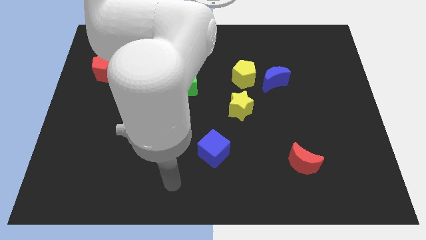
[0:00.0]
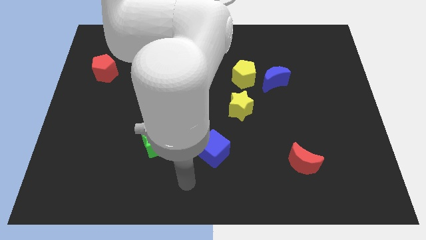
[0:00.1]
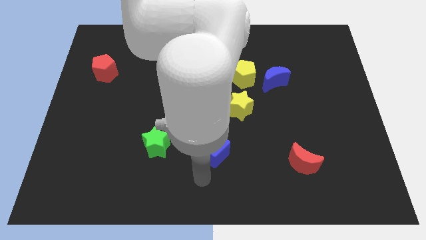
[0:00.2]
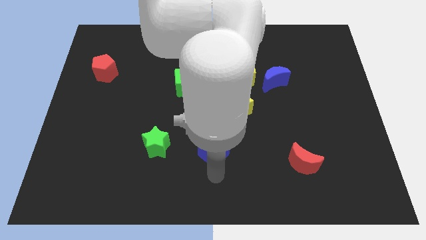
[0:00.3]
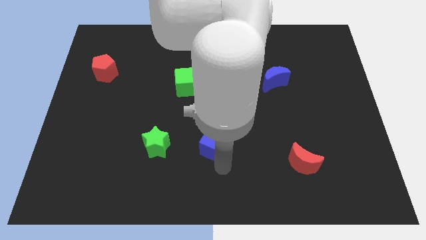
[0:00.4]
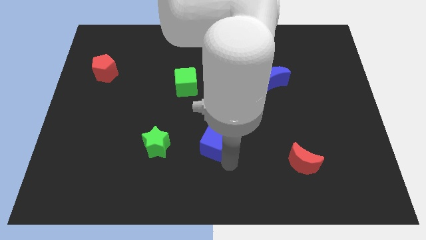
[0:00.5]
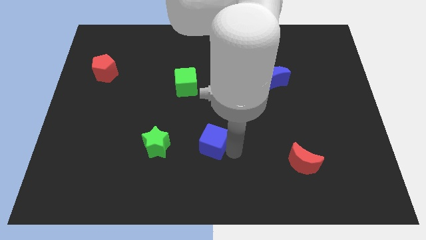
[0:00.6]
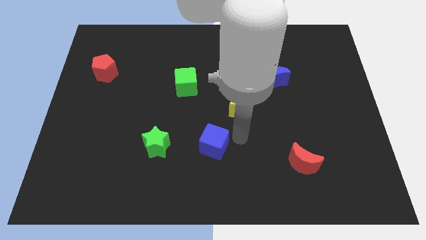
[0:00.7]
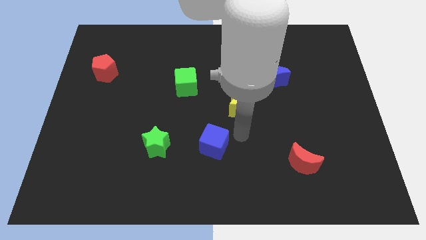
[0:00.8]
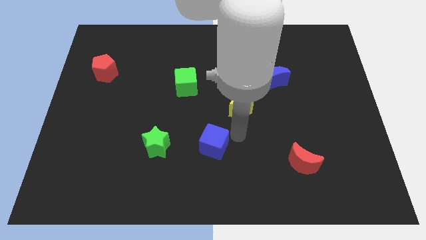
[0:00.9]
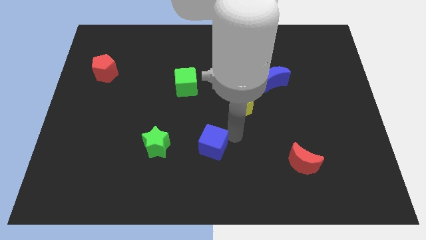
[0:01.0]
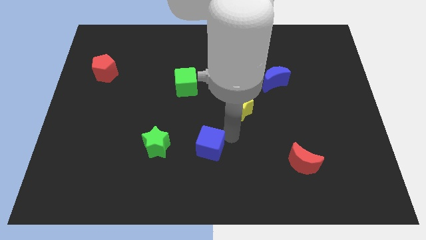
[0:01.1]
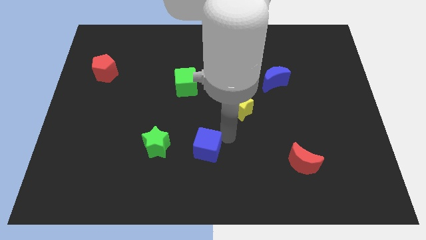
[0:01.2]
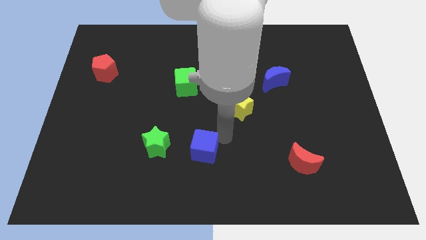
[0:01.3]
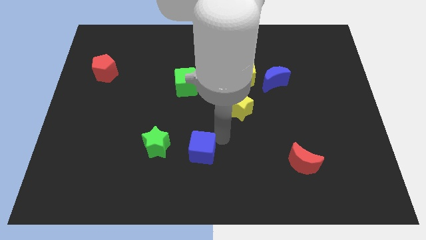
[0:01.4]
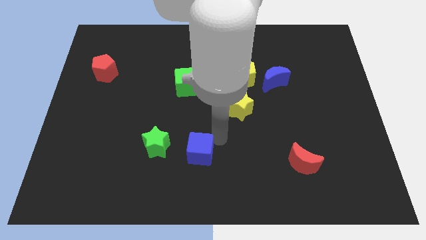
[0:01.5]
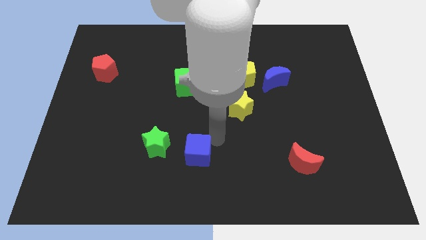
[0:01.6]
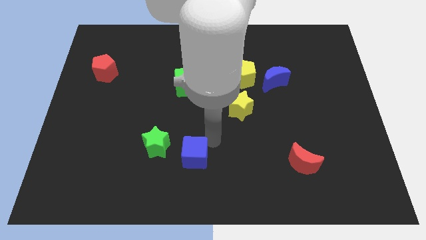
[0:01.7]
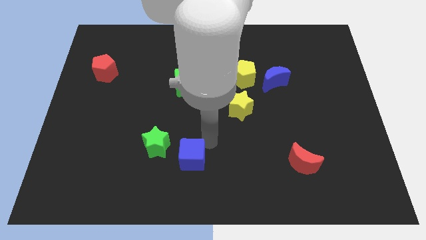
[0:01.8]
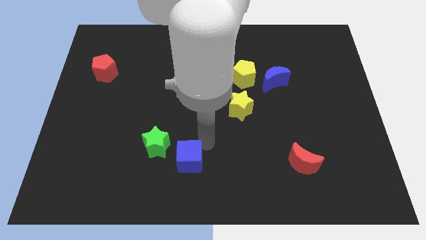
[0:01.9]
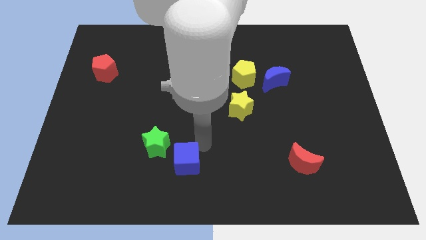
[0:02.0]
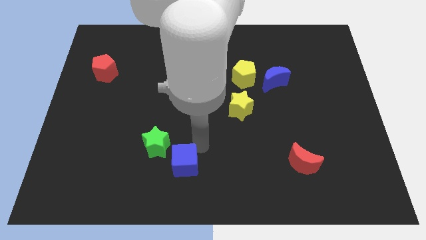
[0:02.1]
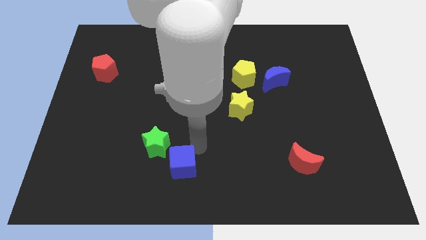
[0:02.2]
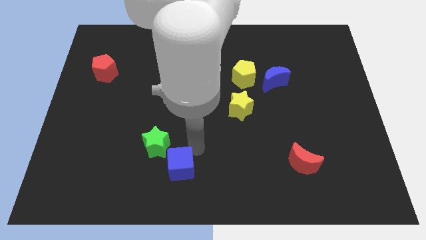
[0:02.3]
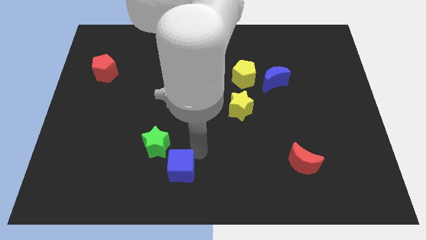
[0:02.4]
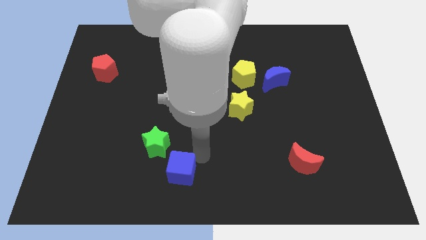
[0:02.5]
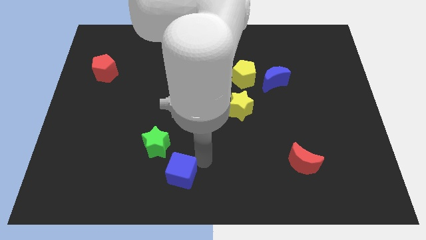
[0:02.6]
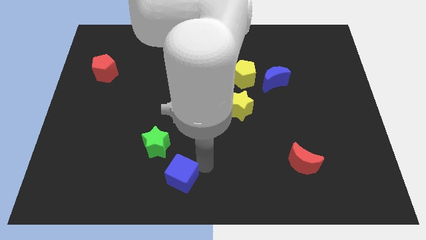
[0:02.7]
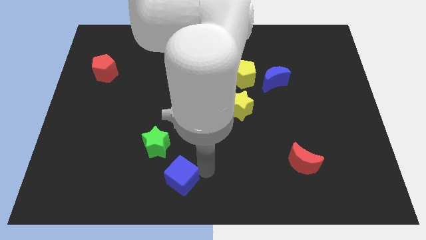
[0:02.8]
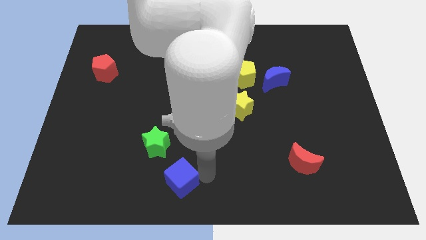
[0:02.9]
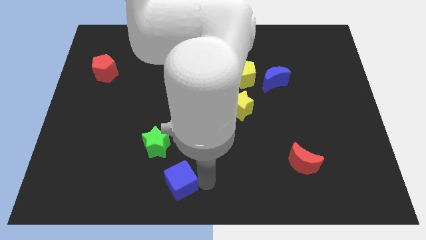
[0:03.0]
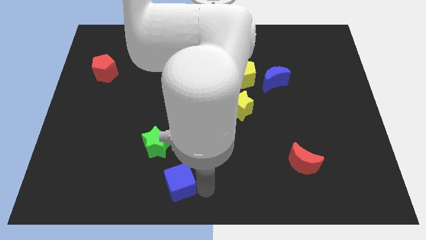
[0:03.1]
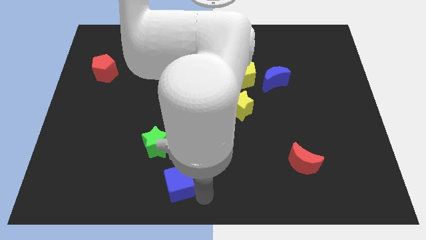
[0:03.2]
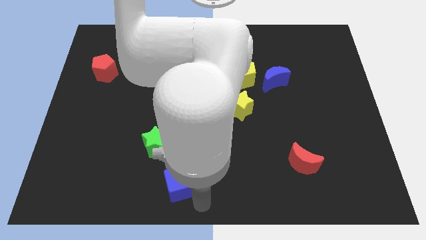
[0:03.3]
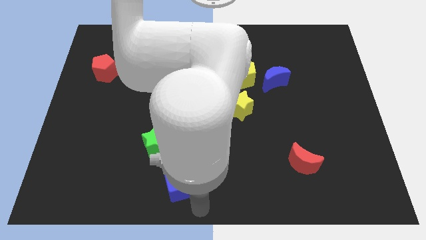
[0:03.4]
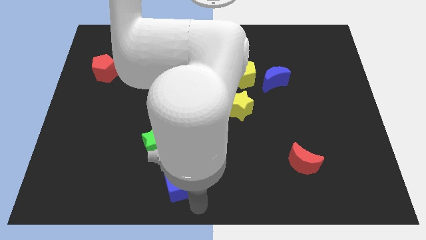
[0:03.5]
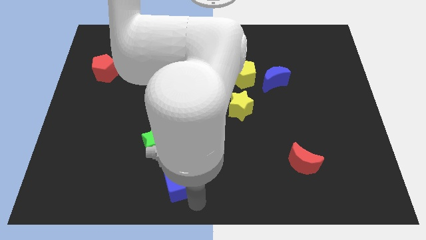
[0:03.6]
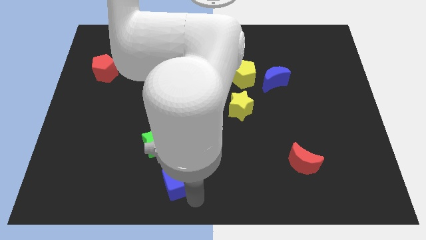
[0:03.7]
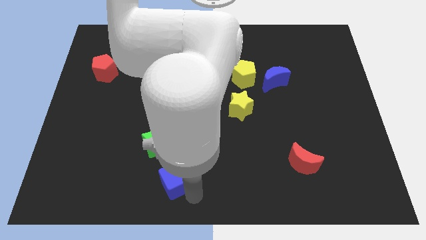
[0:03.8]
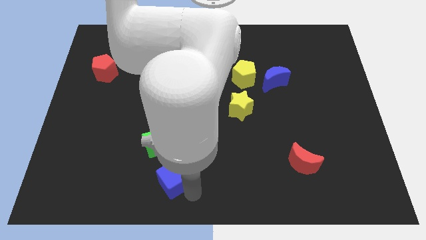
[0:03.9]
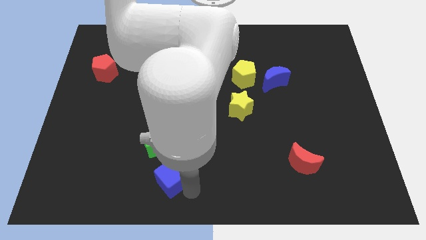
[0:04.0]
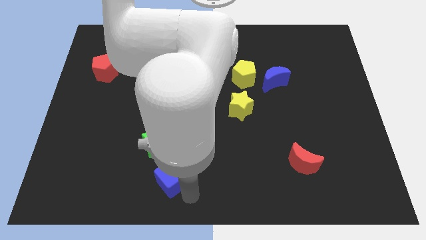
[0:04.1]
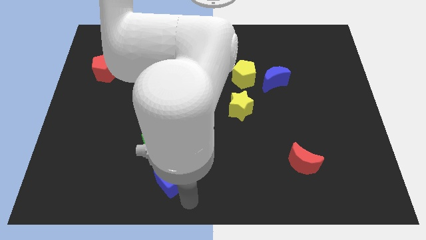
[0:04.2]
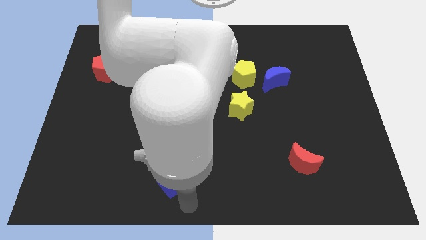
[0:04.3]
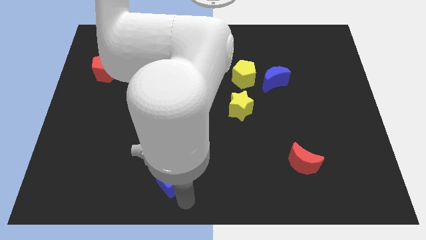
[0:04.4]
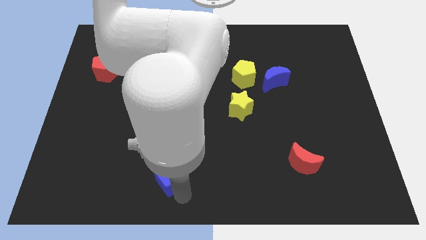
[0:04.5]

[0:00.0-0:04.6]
move the blue cube to the left slightly

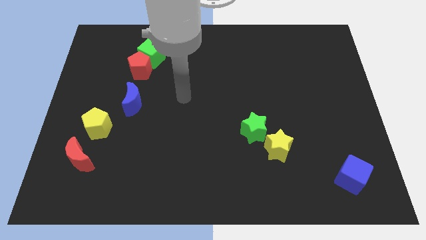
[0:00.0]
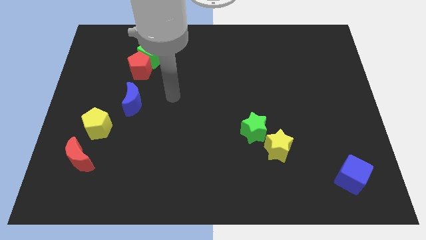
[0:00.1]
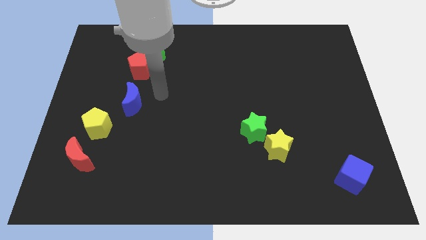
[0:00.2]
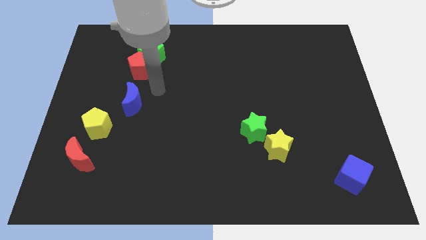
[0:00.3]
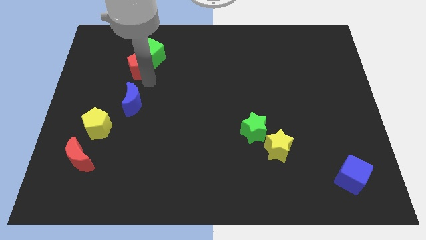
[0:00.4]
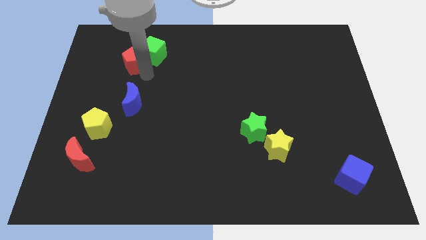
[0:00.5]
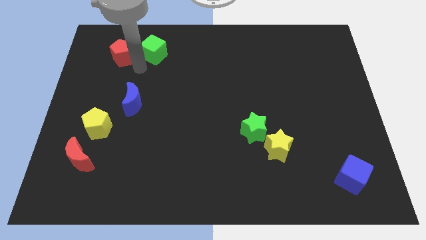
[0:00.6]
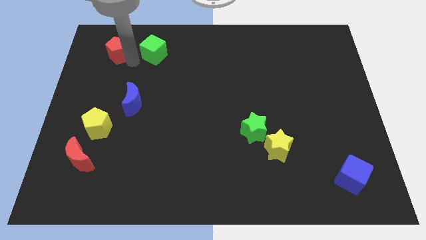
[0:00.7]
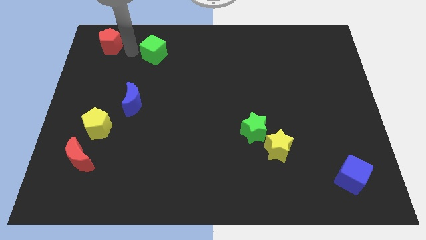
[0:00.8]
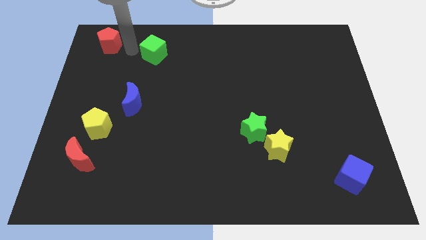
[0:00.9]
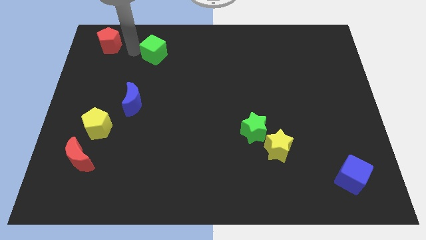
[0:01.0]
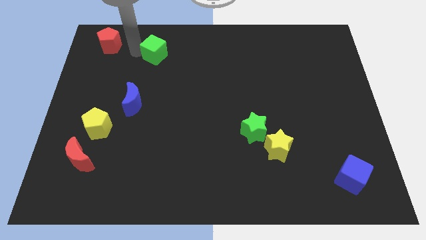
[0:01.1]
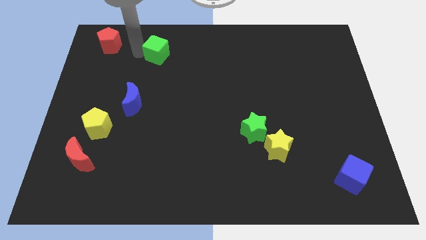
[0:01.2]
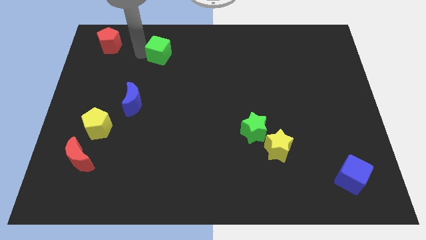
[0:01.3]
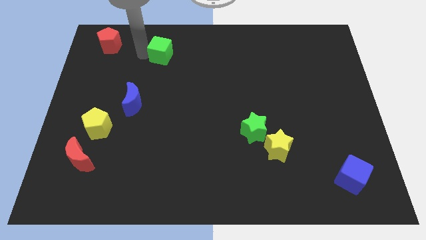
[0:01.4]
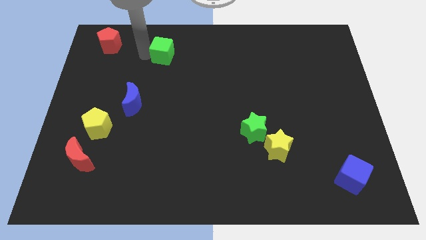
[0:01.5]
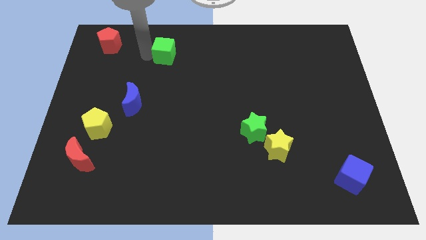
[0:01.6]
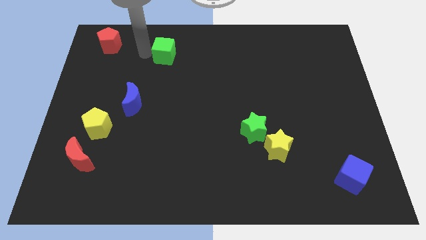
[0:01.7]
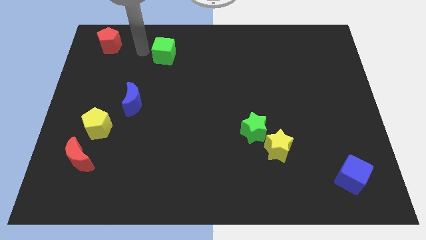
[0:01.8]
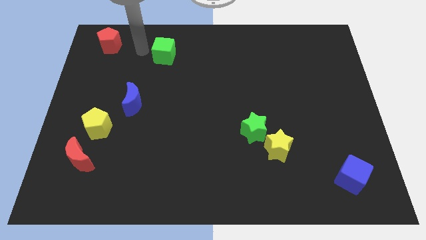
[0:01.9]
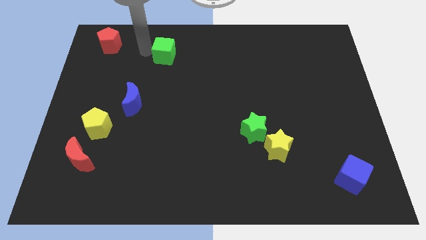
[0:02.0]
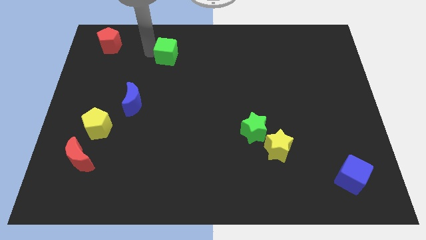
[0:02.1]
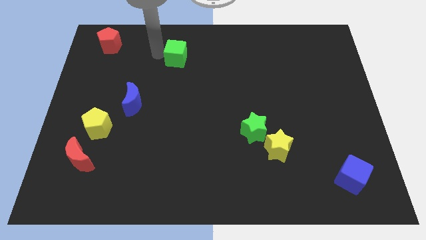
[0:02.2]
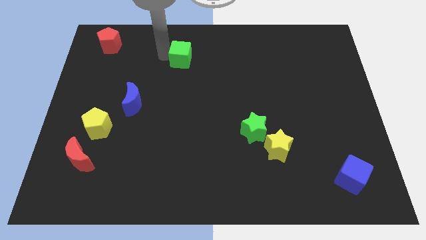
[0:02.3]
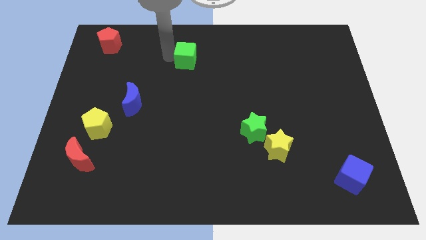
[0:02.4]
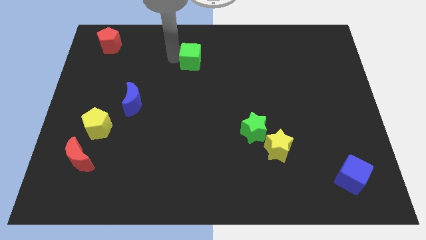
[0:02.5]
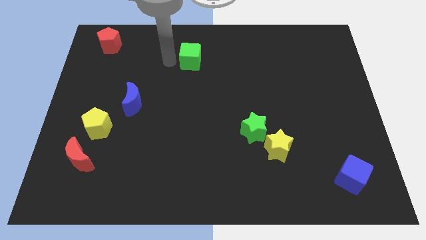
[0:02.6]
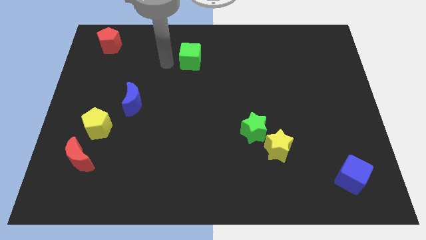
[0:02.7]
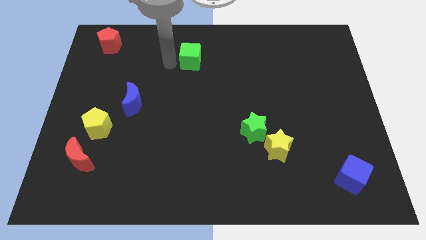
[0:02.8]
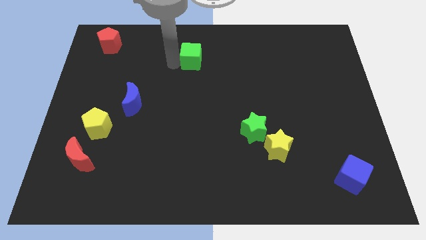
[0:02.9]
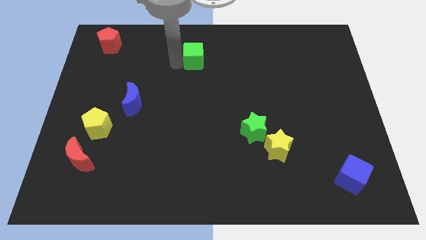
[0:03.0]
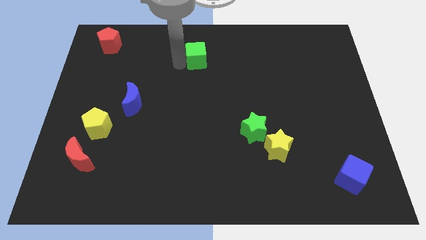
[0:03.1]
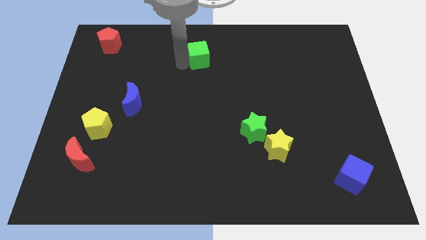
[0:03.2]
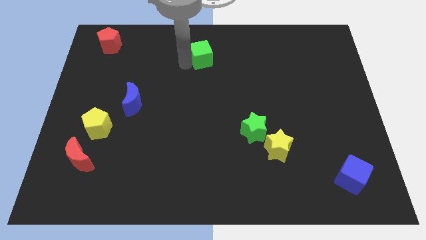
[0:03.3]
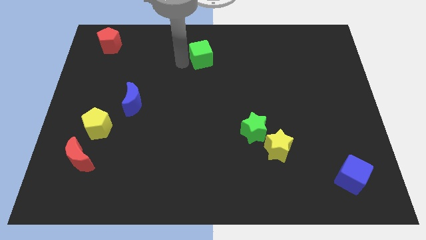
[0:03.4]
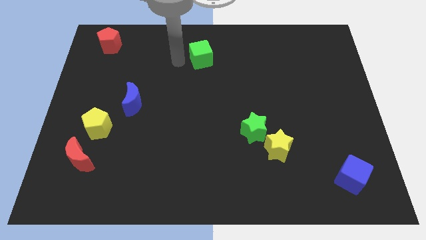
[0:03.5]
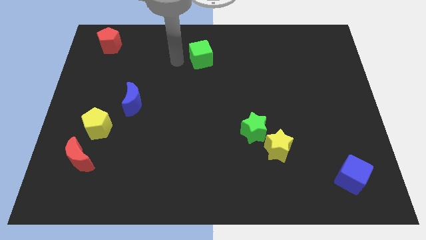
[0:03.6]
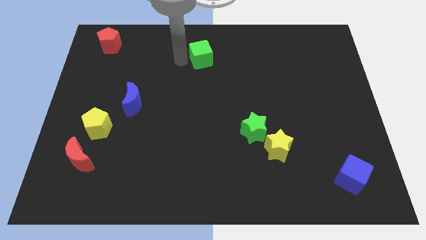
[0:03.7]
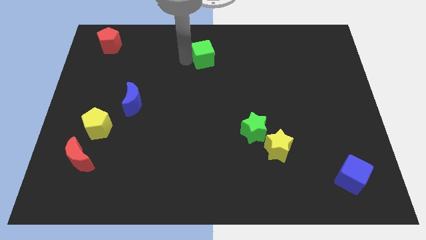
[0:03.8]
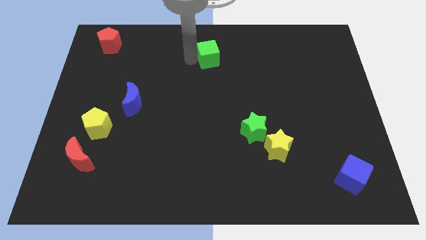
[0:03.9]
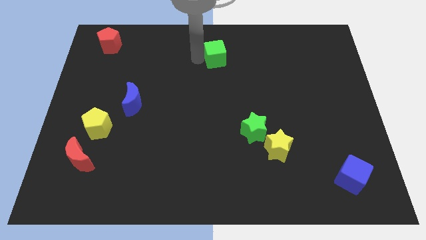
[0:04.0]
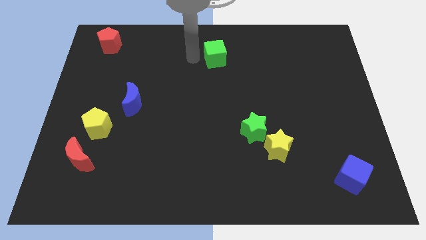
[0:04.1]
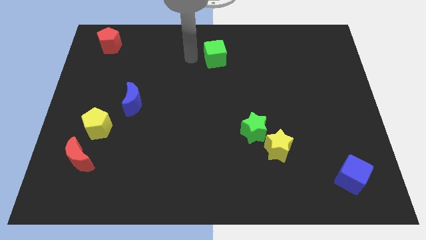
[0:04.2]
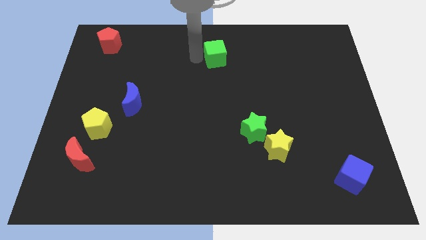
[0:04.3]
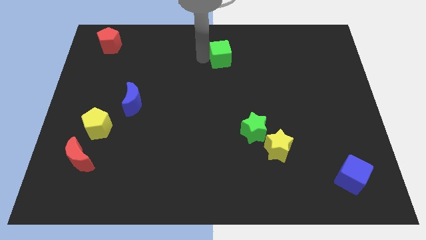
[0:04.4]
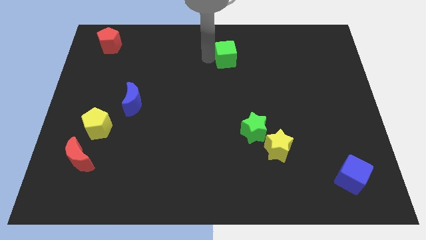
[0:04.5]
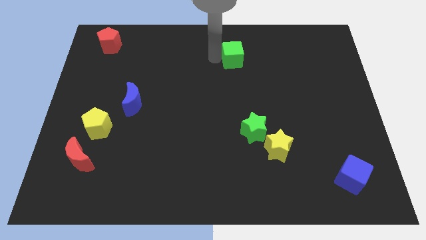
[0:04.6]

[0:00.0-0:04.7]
move the green cube to the right
